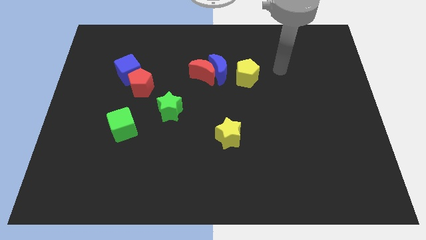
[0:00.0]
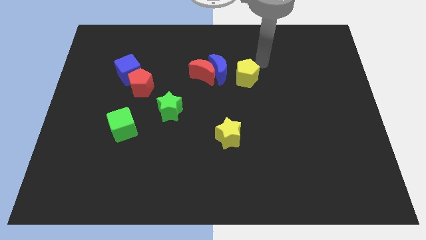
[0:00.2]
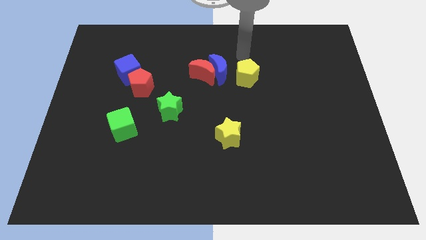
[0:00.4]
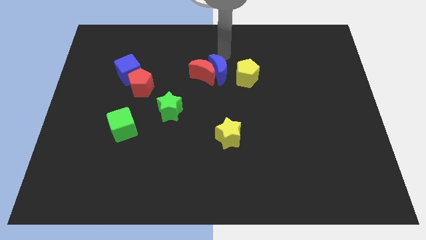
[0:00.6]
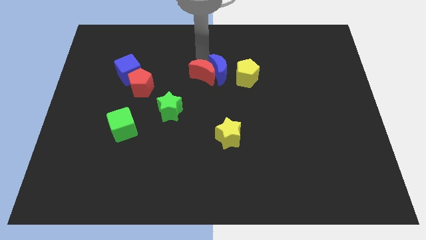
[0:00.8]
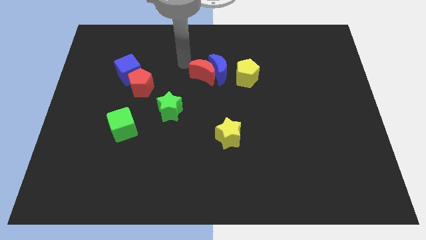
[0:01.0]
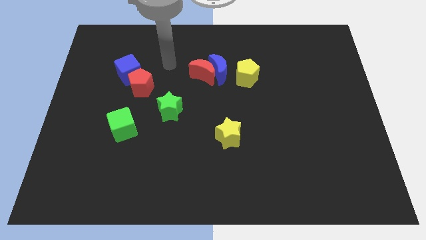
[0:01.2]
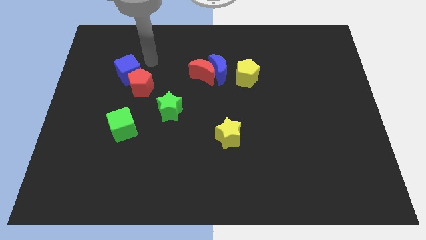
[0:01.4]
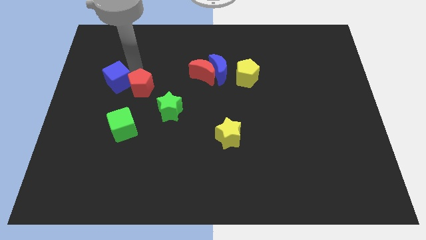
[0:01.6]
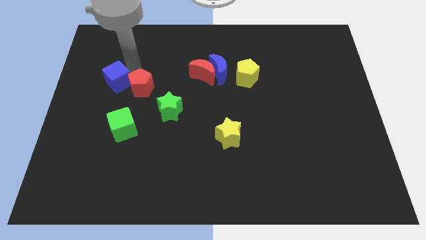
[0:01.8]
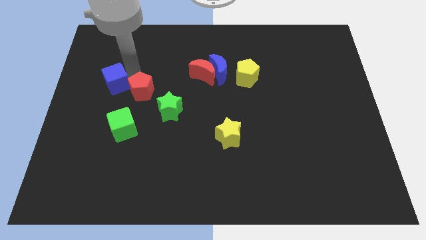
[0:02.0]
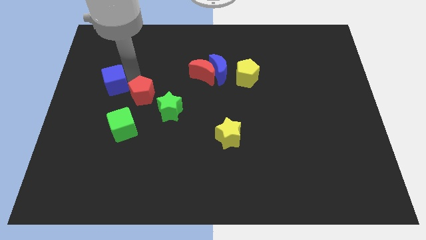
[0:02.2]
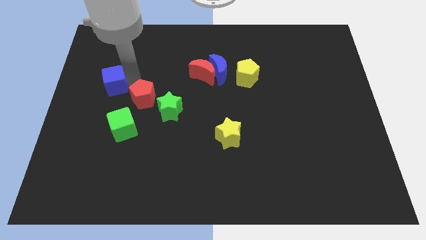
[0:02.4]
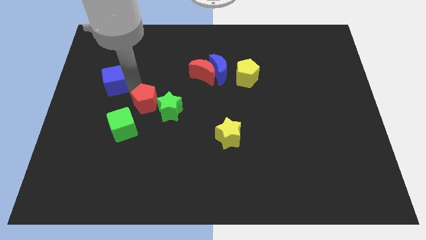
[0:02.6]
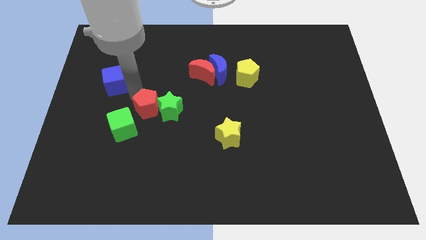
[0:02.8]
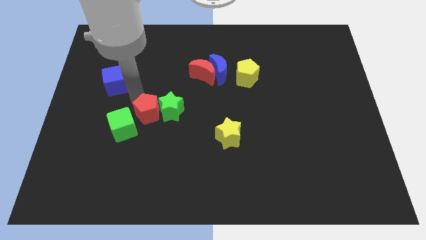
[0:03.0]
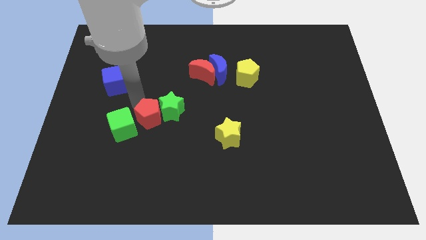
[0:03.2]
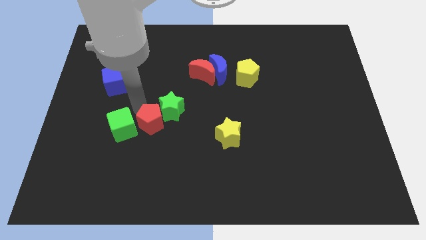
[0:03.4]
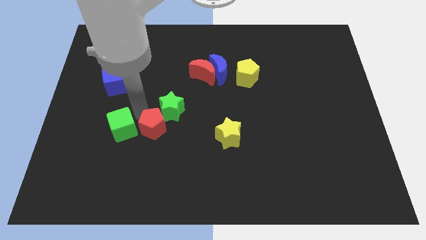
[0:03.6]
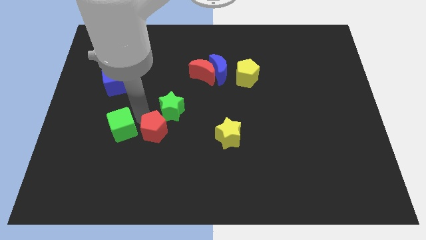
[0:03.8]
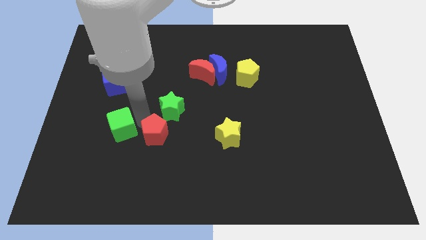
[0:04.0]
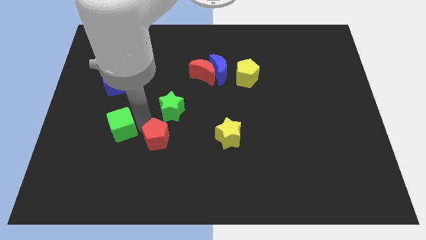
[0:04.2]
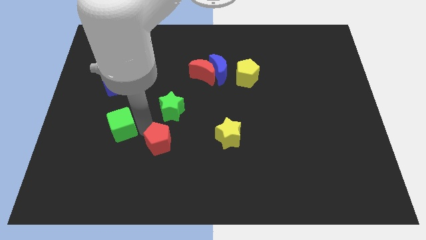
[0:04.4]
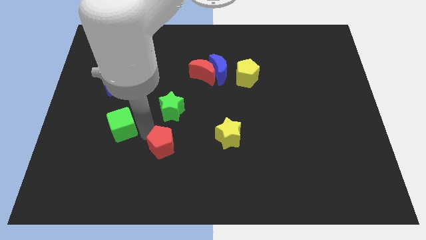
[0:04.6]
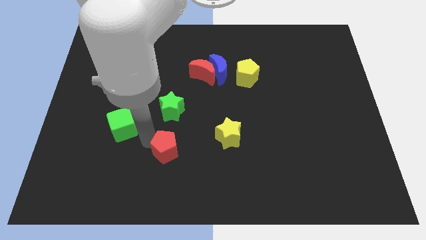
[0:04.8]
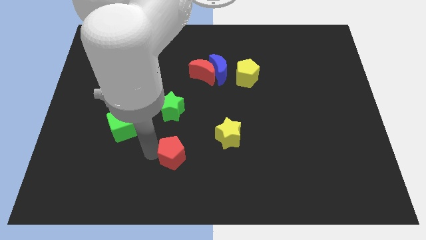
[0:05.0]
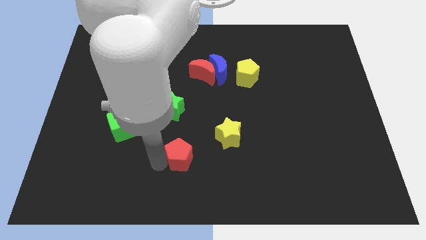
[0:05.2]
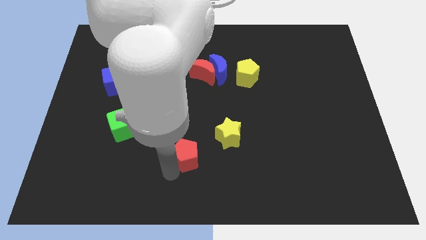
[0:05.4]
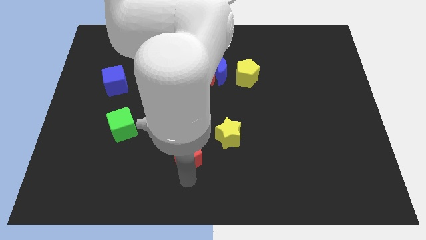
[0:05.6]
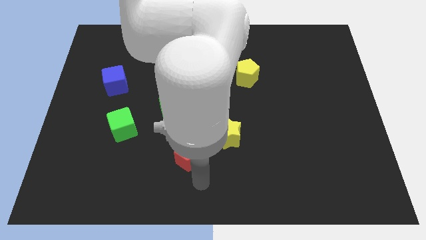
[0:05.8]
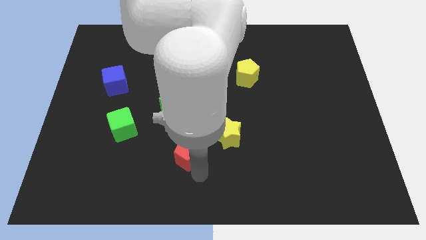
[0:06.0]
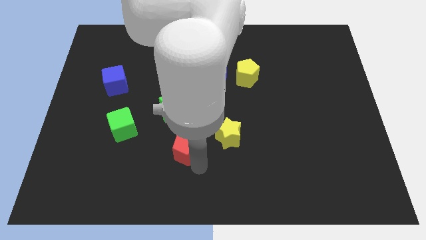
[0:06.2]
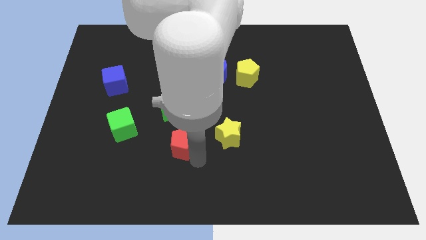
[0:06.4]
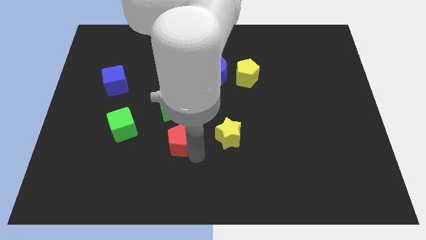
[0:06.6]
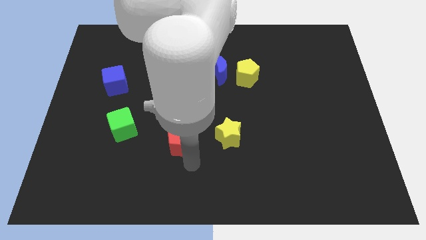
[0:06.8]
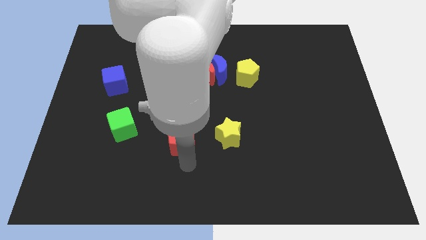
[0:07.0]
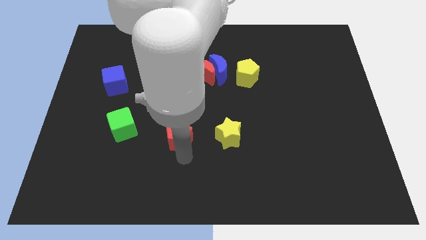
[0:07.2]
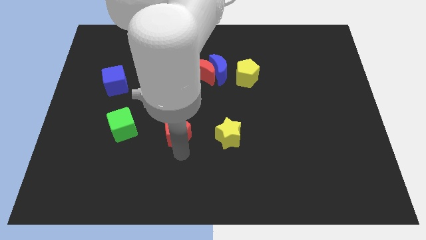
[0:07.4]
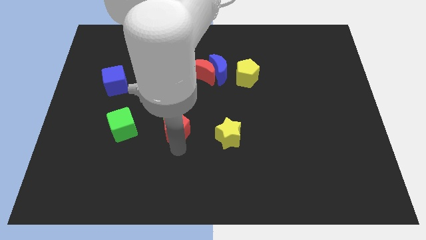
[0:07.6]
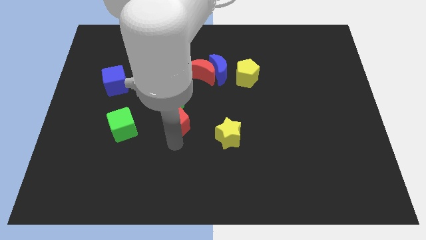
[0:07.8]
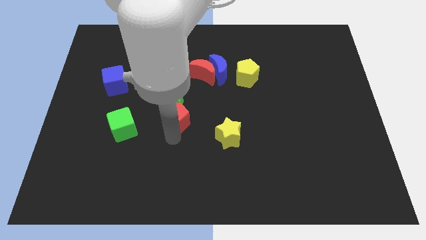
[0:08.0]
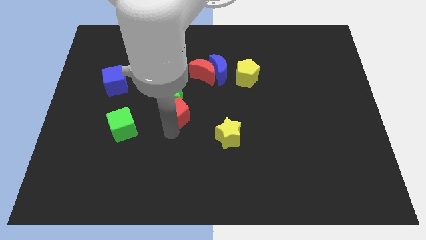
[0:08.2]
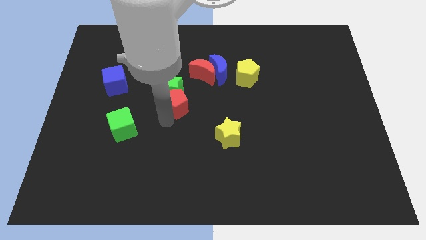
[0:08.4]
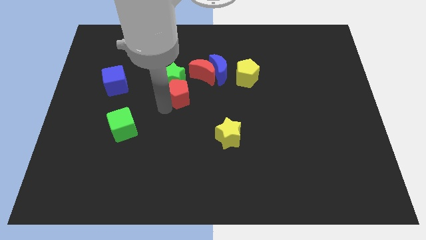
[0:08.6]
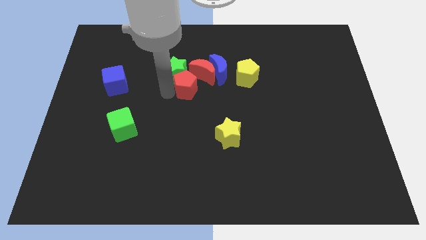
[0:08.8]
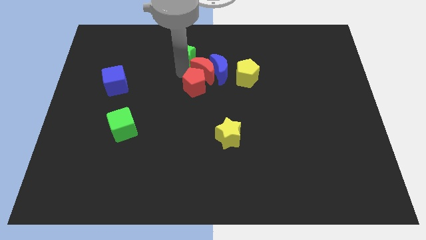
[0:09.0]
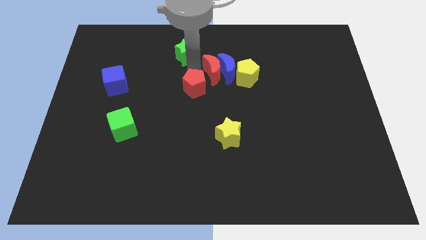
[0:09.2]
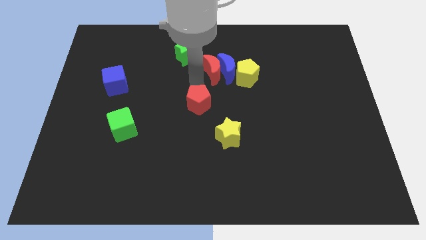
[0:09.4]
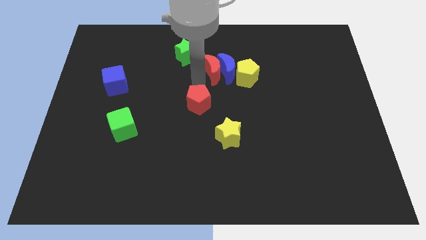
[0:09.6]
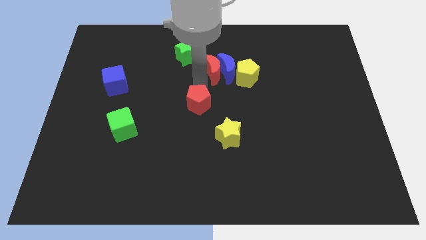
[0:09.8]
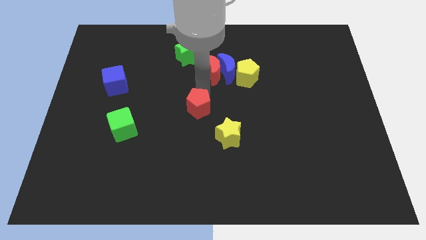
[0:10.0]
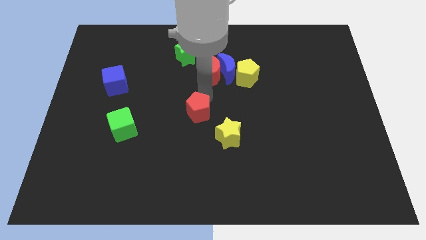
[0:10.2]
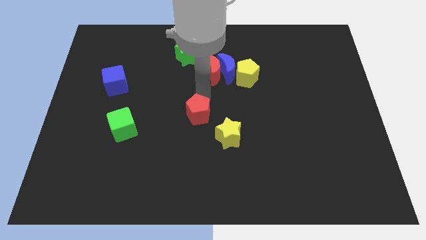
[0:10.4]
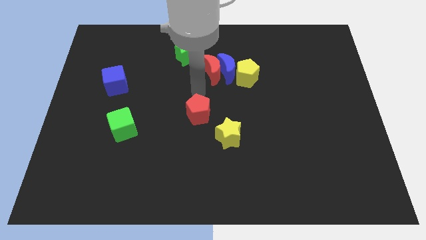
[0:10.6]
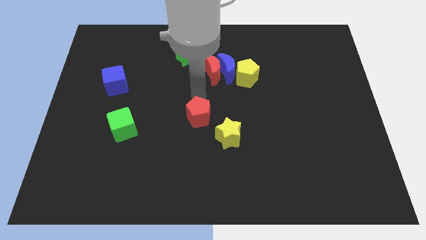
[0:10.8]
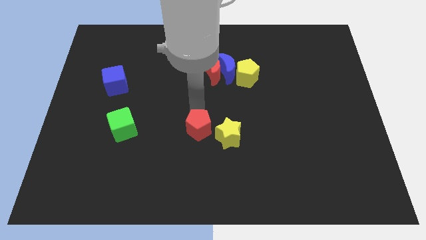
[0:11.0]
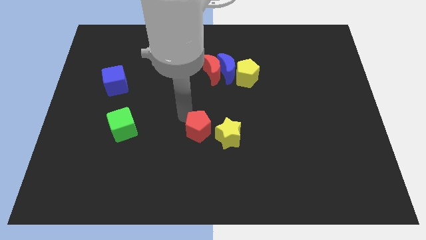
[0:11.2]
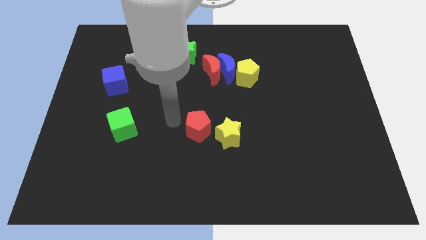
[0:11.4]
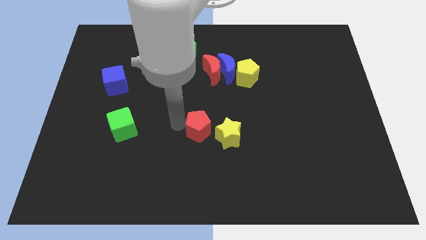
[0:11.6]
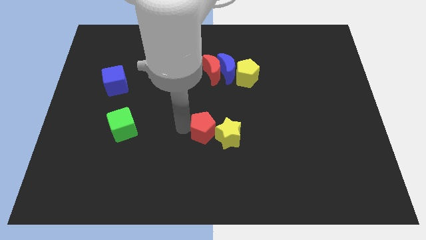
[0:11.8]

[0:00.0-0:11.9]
slide the red pentagon towards the yellow star

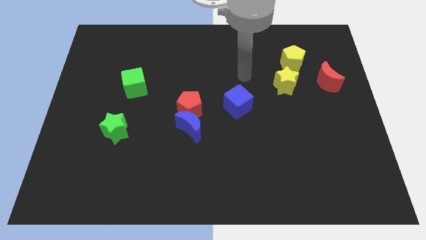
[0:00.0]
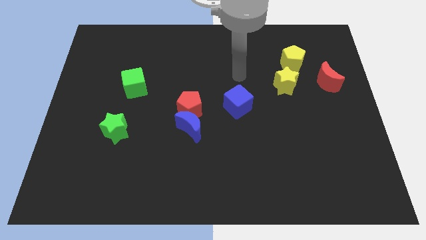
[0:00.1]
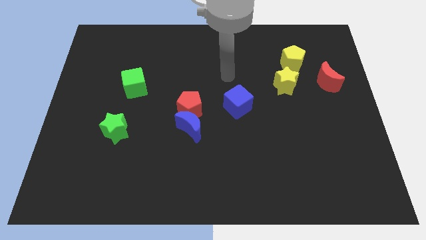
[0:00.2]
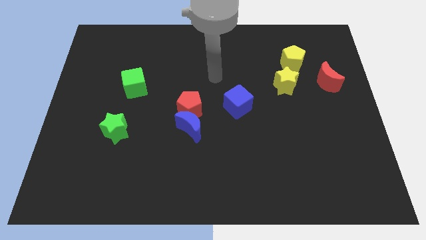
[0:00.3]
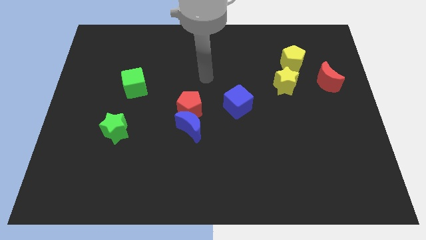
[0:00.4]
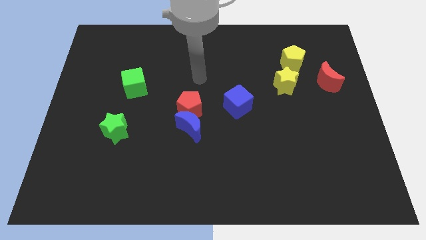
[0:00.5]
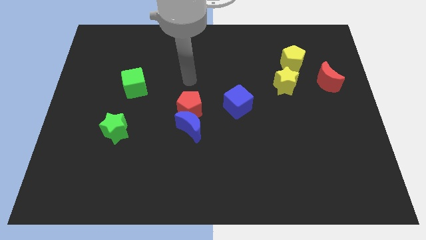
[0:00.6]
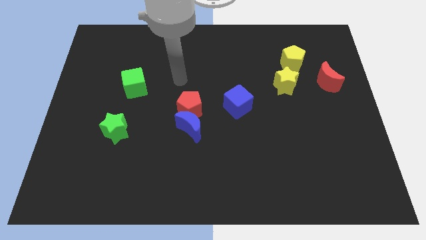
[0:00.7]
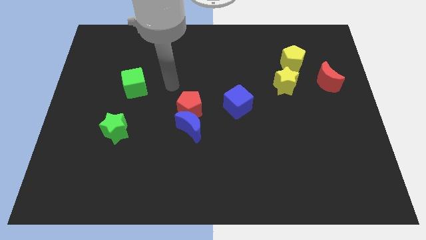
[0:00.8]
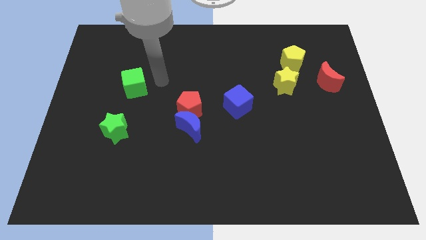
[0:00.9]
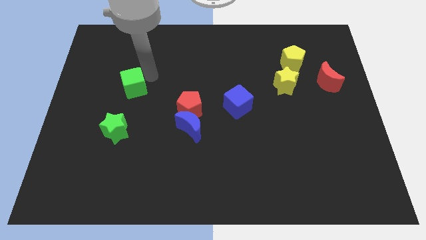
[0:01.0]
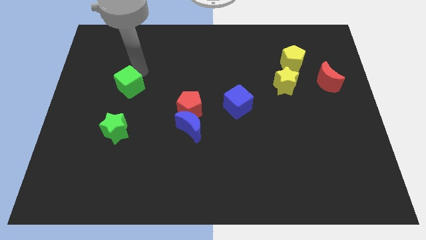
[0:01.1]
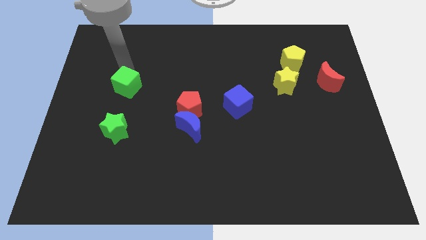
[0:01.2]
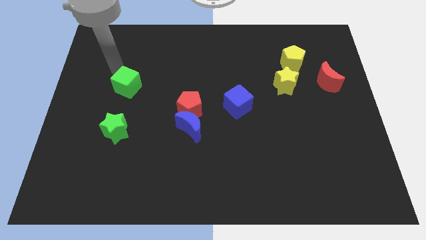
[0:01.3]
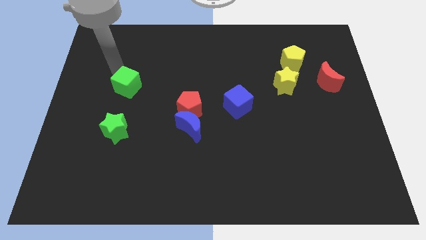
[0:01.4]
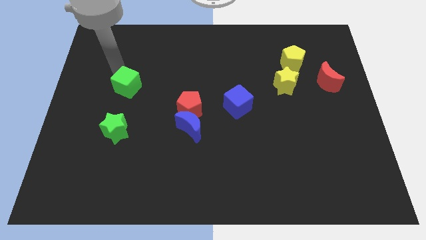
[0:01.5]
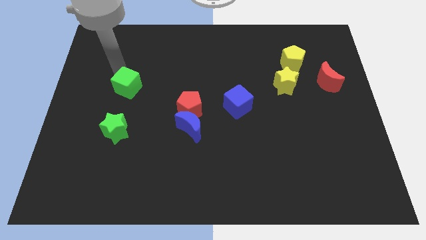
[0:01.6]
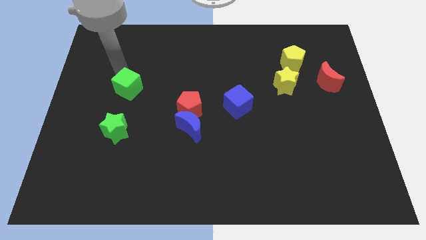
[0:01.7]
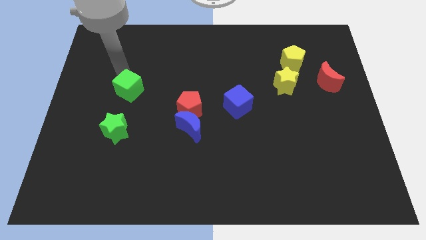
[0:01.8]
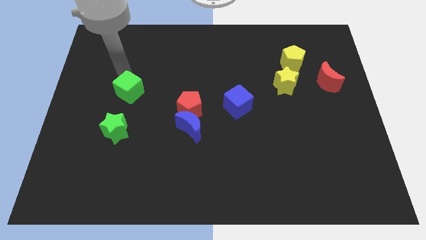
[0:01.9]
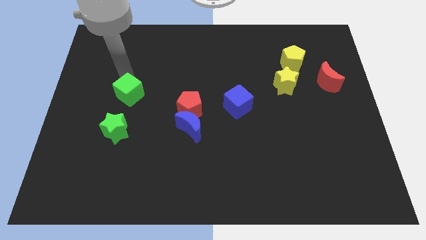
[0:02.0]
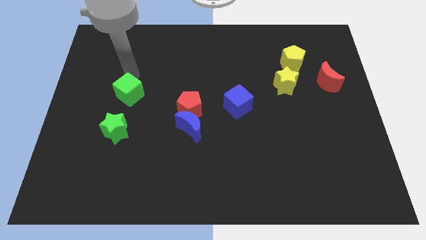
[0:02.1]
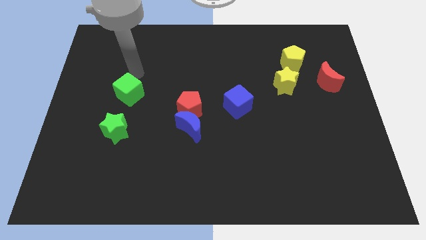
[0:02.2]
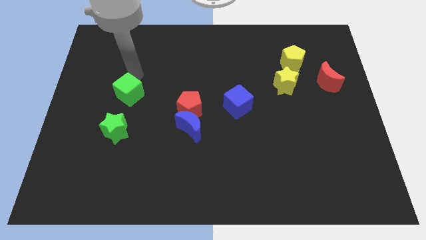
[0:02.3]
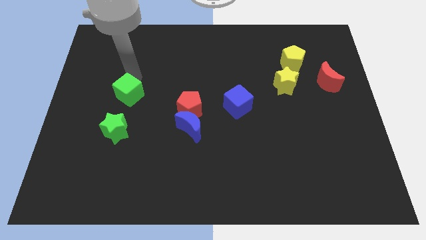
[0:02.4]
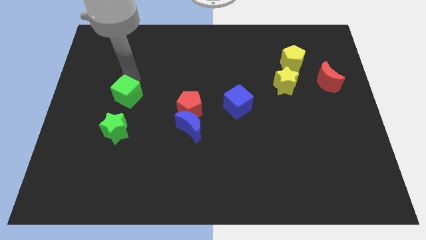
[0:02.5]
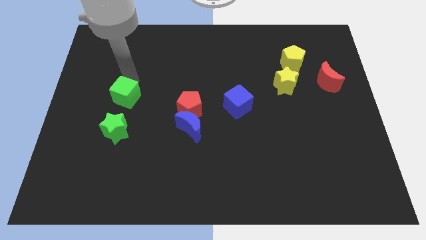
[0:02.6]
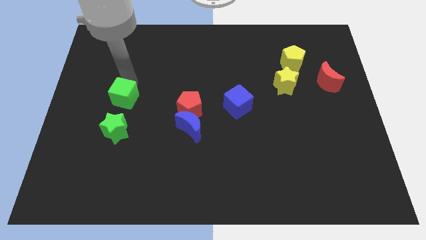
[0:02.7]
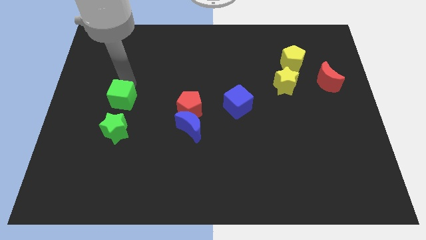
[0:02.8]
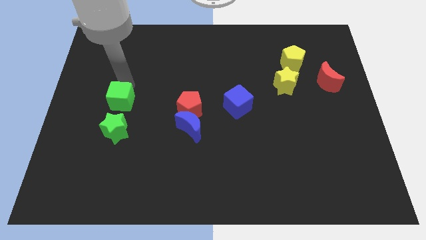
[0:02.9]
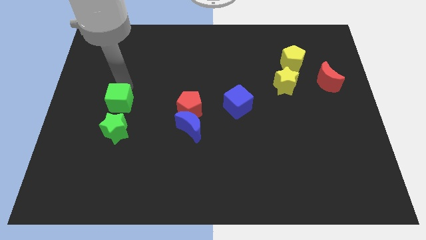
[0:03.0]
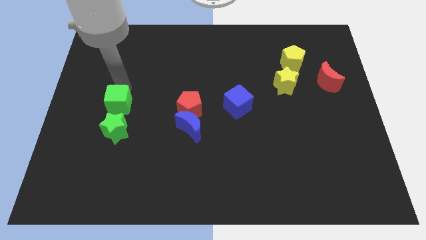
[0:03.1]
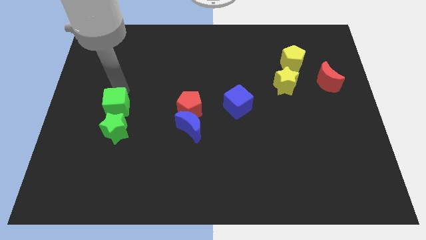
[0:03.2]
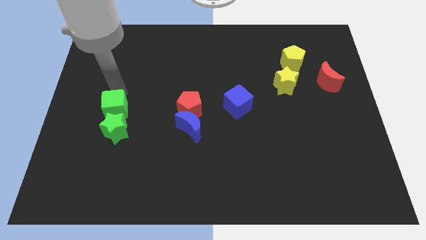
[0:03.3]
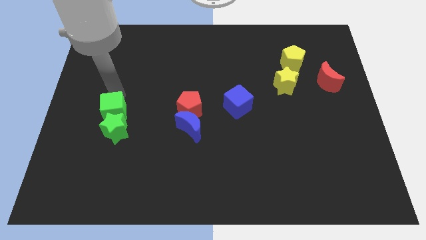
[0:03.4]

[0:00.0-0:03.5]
move the green cube close to the green star
